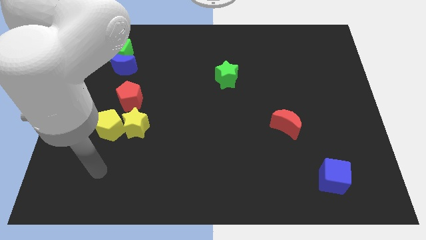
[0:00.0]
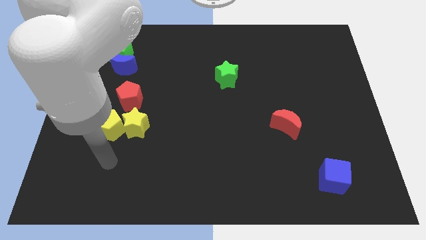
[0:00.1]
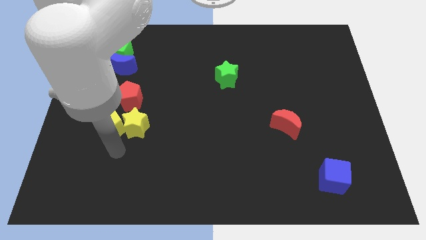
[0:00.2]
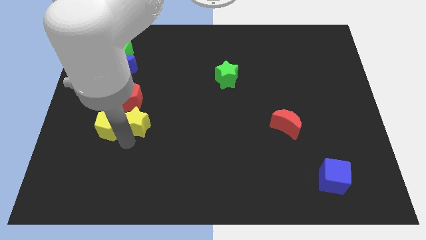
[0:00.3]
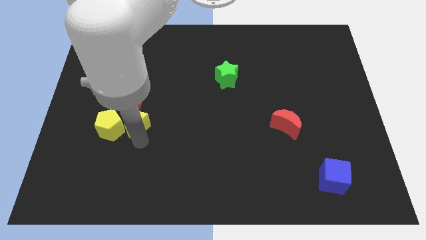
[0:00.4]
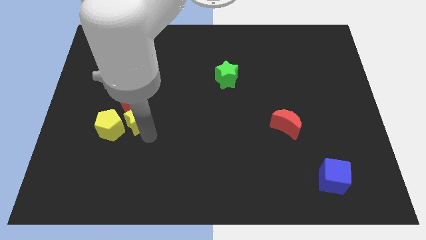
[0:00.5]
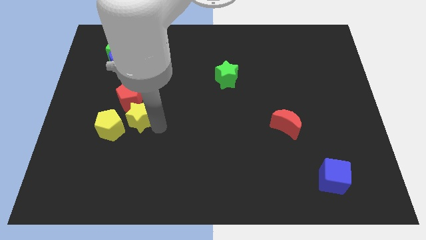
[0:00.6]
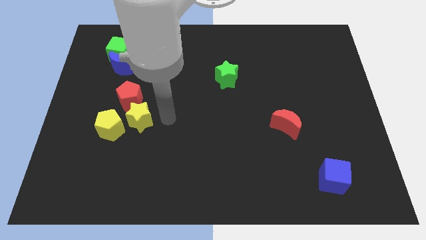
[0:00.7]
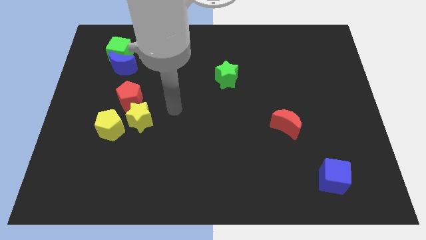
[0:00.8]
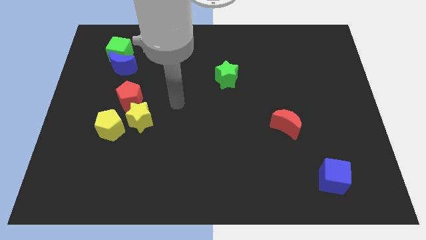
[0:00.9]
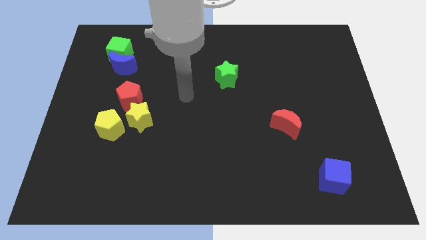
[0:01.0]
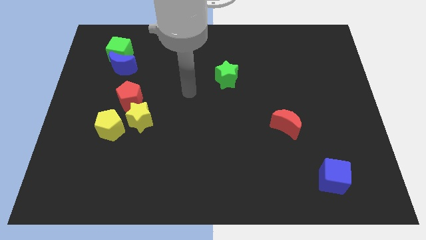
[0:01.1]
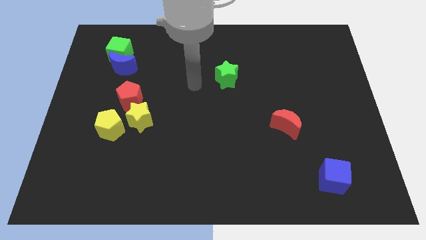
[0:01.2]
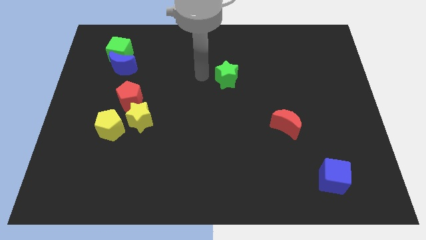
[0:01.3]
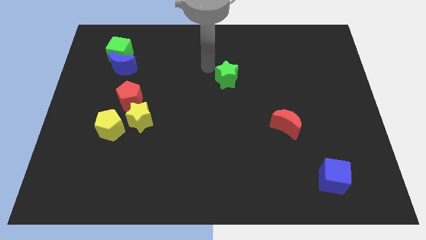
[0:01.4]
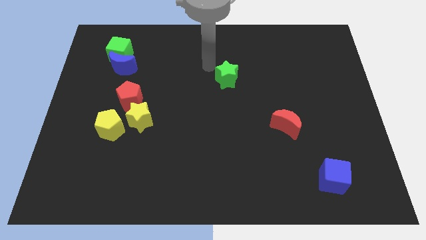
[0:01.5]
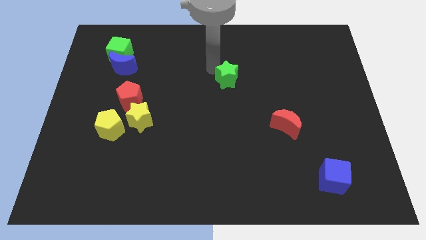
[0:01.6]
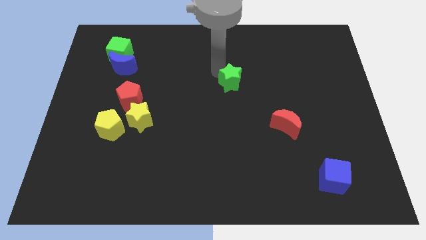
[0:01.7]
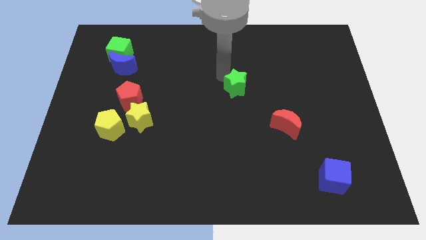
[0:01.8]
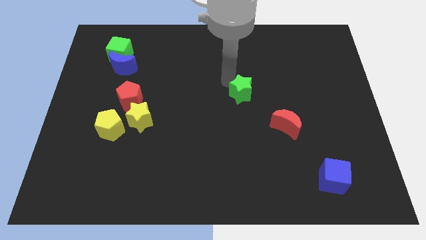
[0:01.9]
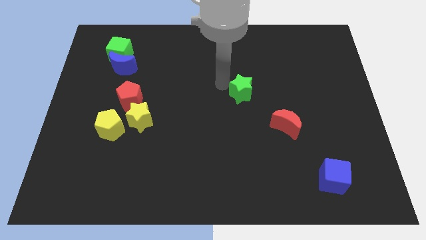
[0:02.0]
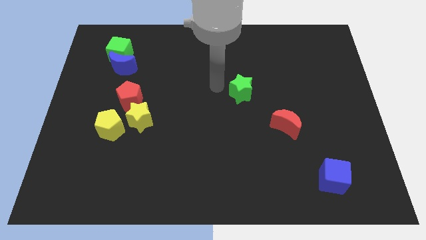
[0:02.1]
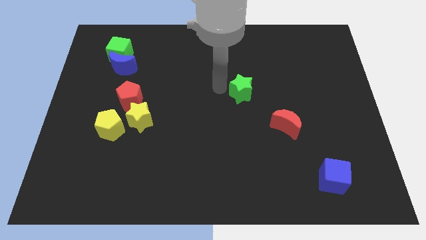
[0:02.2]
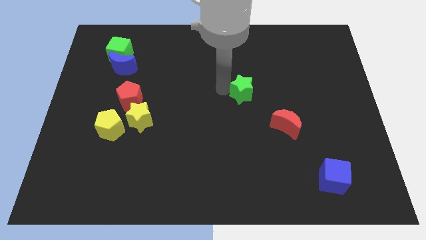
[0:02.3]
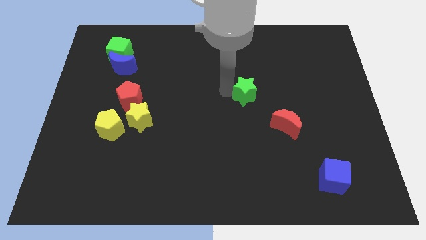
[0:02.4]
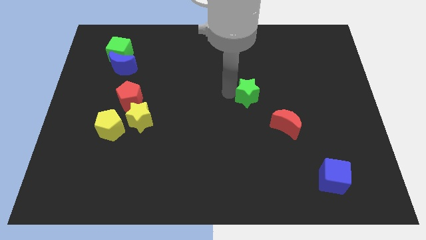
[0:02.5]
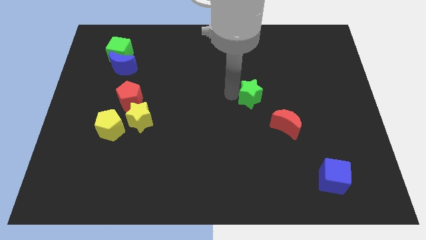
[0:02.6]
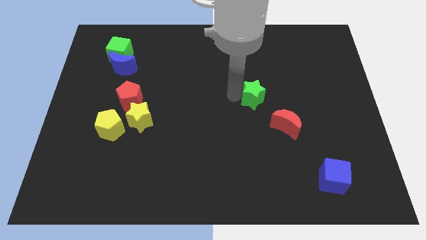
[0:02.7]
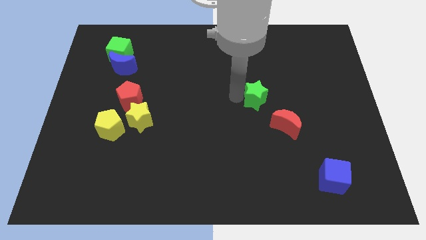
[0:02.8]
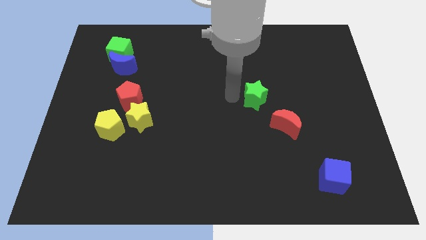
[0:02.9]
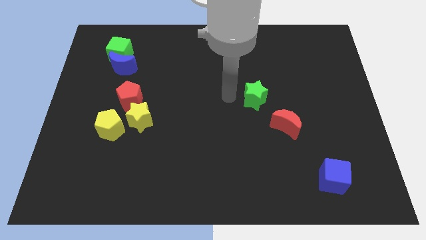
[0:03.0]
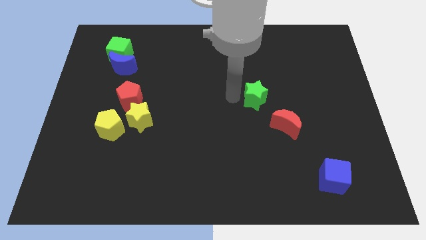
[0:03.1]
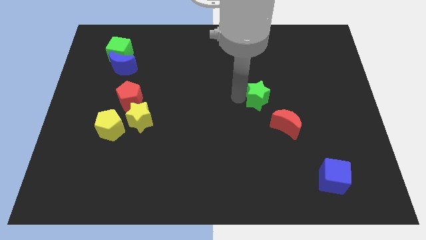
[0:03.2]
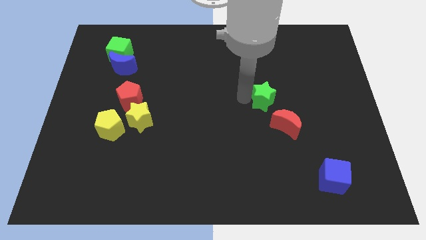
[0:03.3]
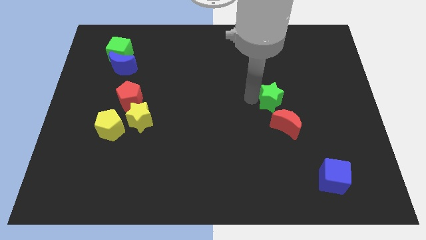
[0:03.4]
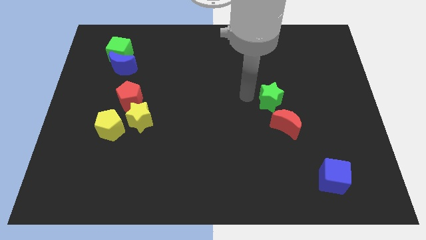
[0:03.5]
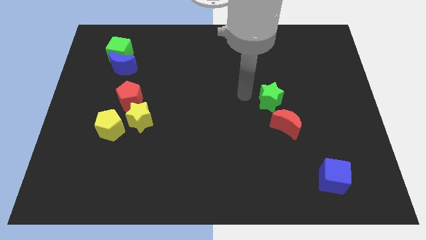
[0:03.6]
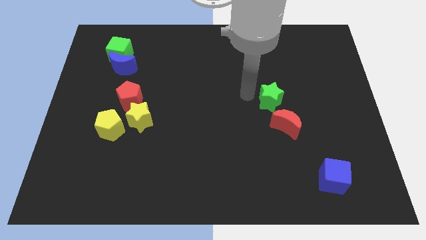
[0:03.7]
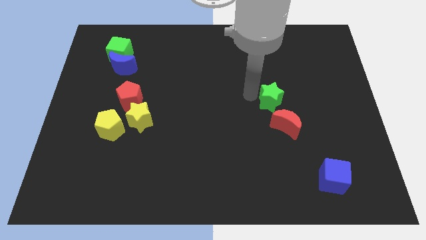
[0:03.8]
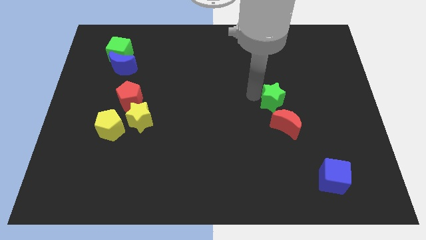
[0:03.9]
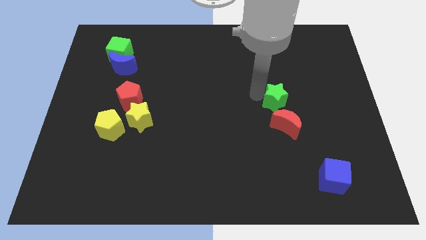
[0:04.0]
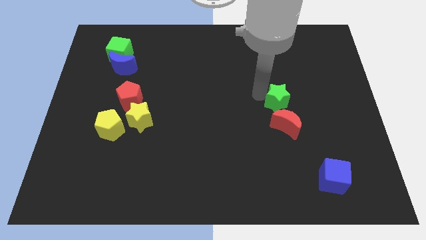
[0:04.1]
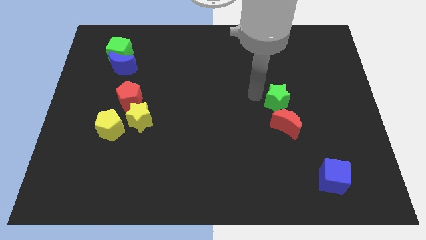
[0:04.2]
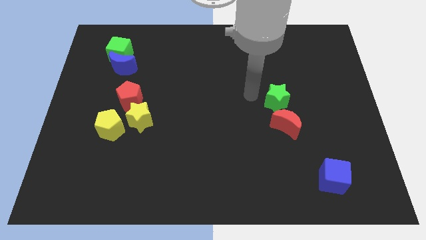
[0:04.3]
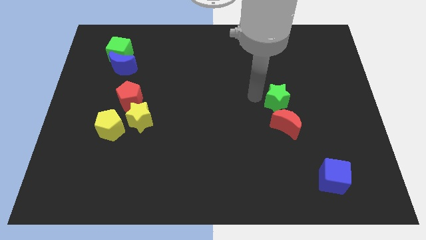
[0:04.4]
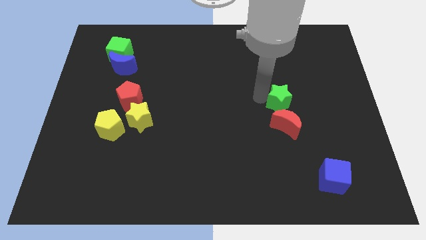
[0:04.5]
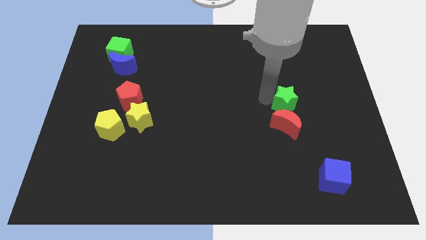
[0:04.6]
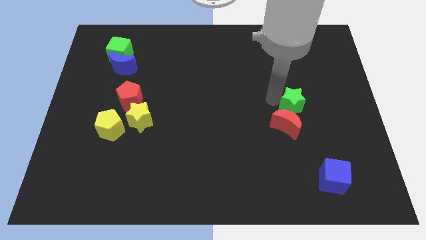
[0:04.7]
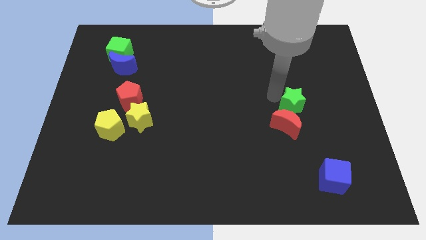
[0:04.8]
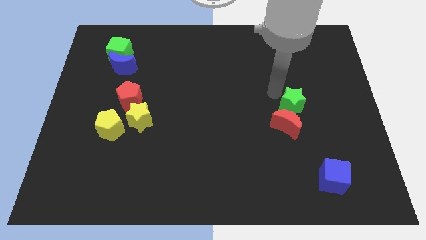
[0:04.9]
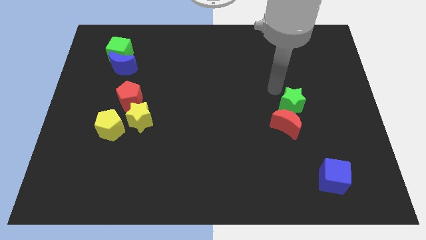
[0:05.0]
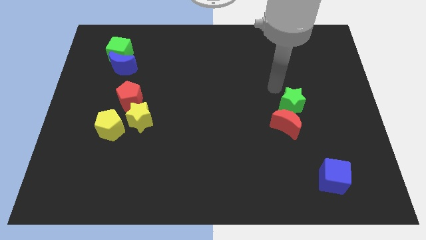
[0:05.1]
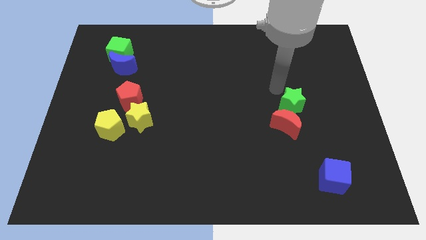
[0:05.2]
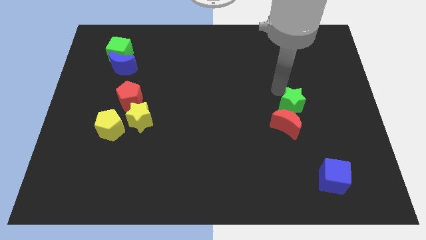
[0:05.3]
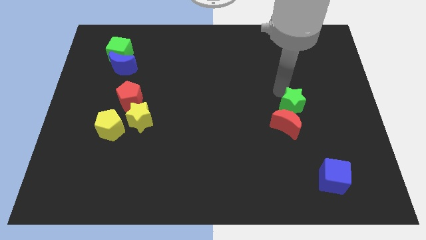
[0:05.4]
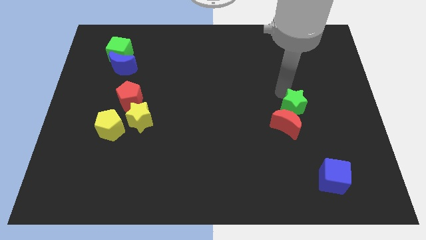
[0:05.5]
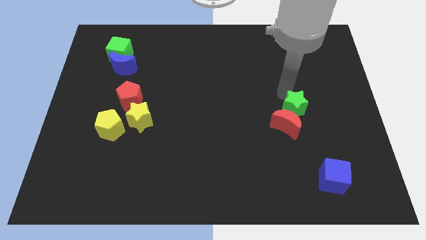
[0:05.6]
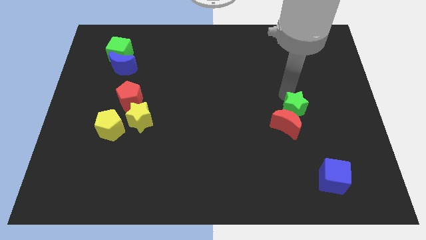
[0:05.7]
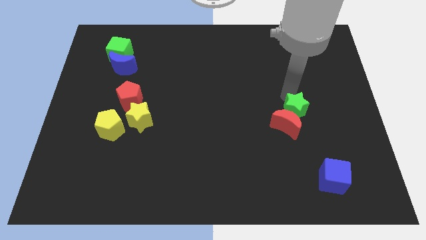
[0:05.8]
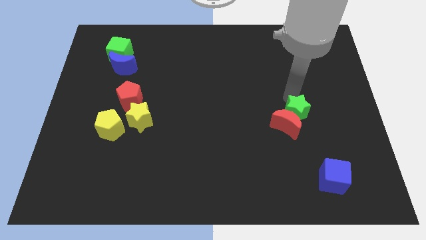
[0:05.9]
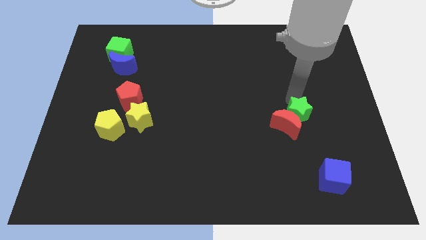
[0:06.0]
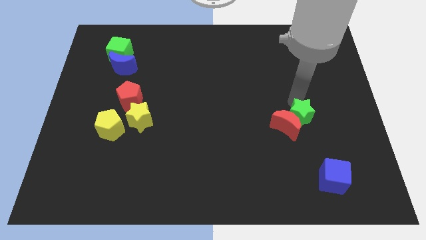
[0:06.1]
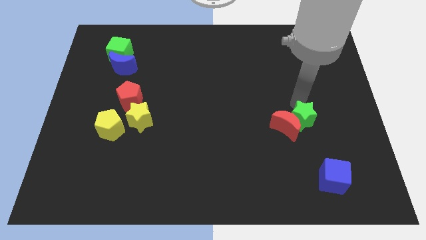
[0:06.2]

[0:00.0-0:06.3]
move the green star diagonally down and right

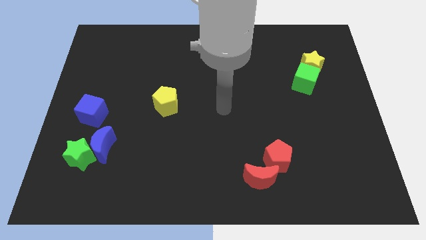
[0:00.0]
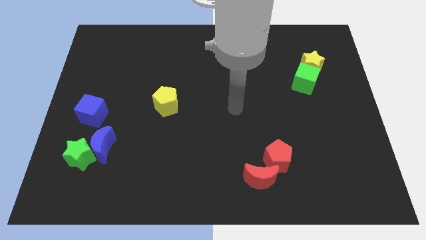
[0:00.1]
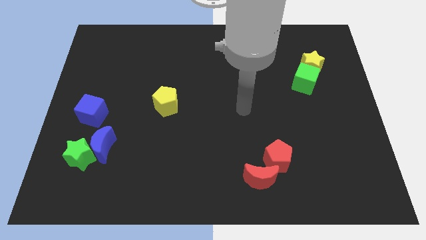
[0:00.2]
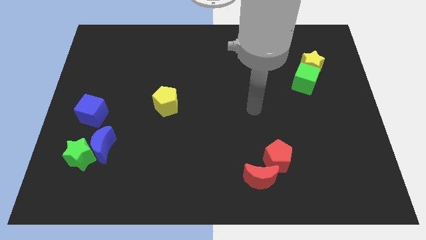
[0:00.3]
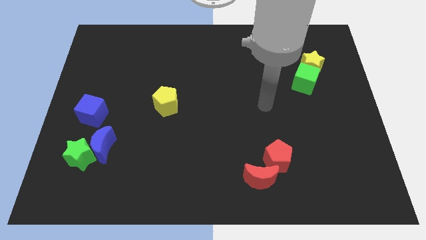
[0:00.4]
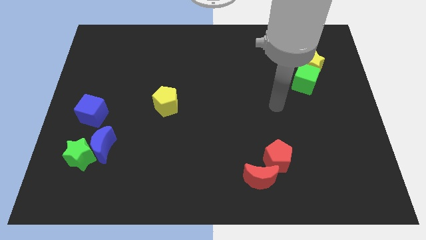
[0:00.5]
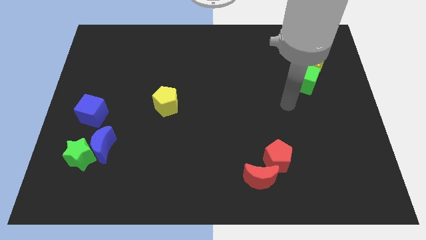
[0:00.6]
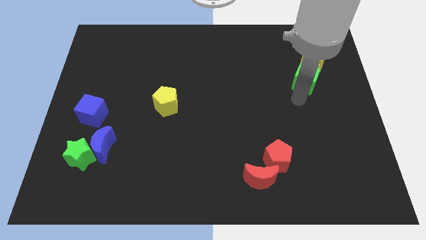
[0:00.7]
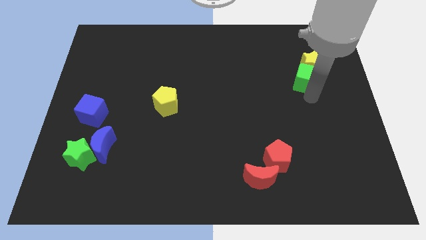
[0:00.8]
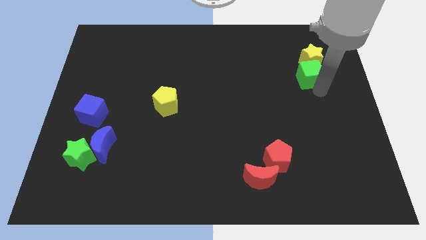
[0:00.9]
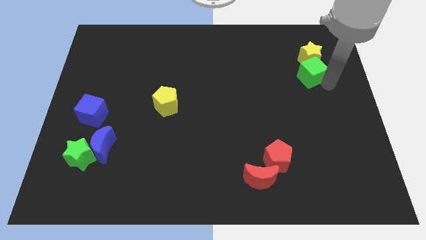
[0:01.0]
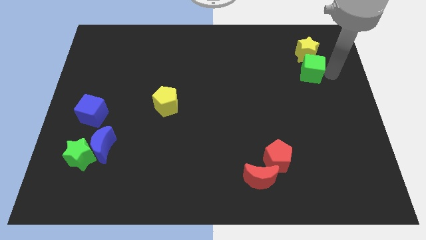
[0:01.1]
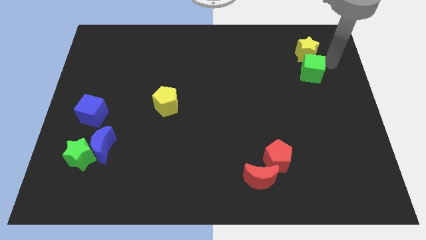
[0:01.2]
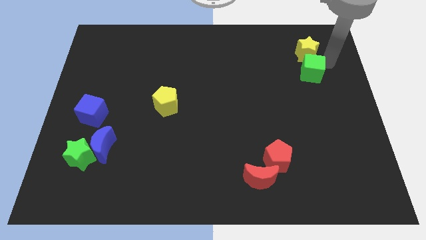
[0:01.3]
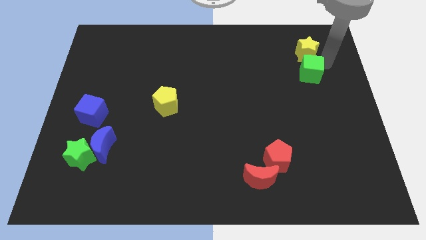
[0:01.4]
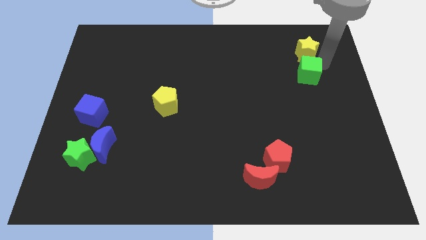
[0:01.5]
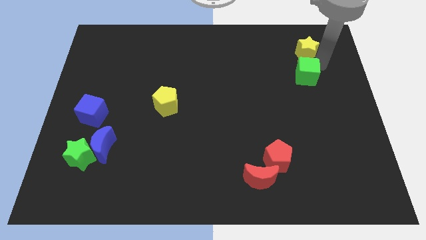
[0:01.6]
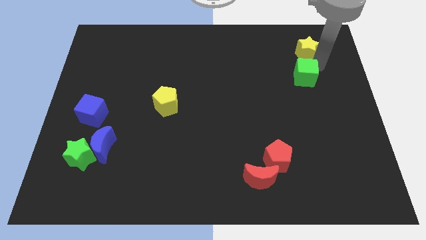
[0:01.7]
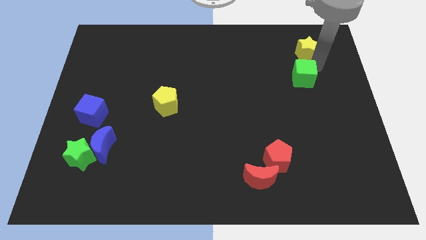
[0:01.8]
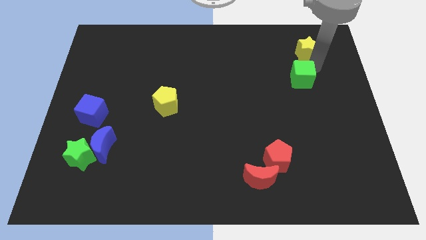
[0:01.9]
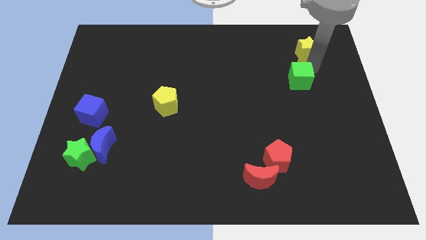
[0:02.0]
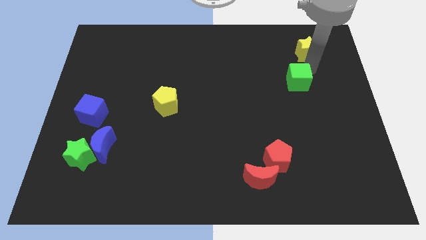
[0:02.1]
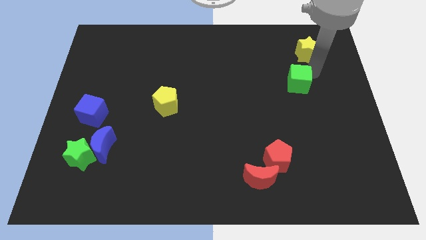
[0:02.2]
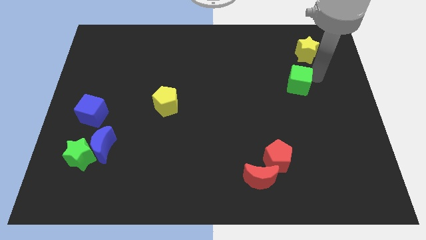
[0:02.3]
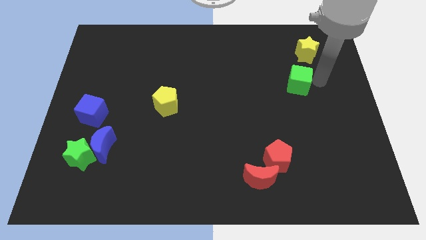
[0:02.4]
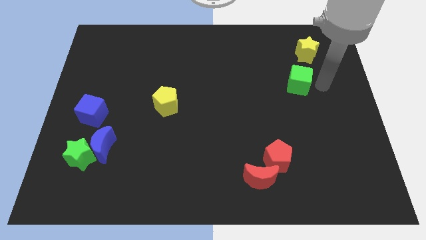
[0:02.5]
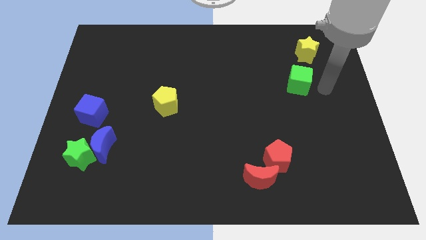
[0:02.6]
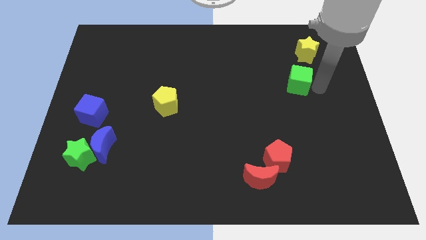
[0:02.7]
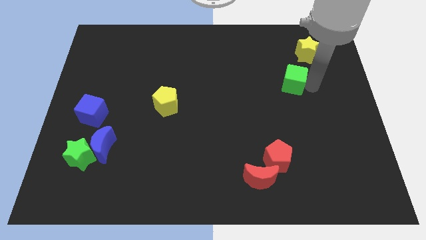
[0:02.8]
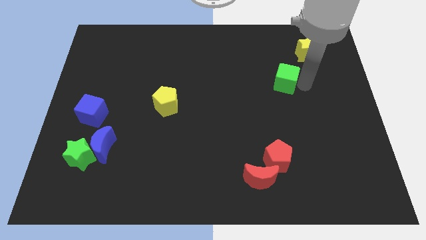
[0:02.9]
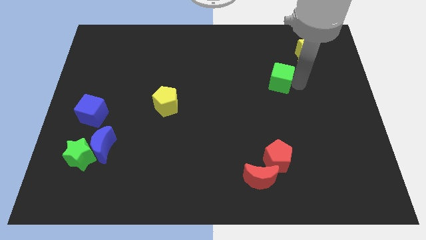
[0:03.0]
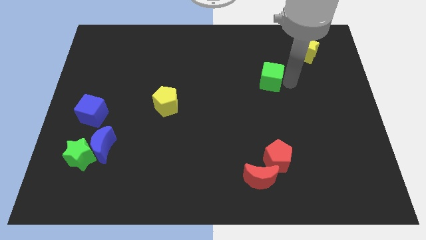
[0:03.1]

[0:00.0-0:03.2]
slightly move the green cube to the left
